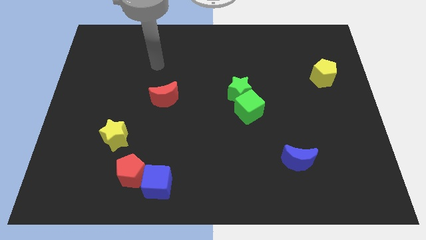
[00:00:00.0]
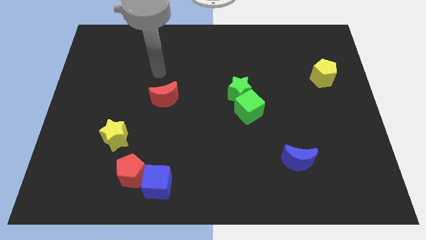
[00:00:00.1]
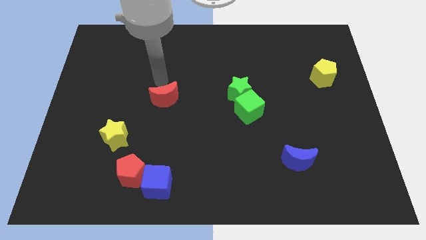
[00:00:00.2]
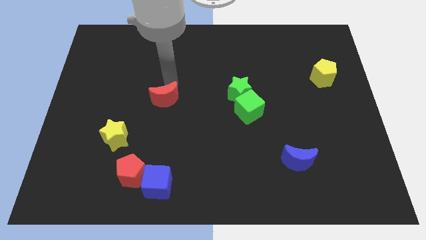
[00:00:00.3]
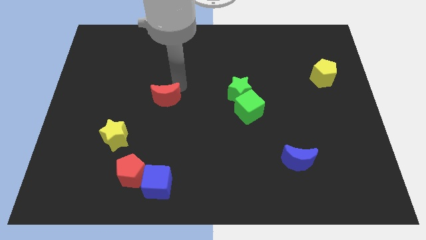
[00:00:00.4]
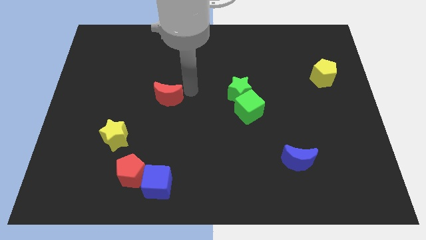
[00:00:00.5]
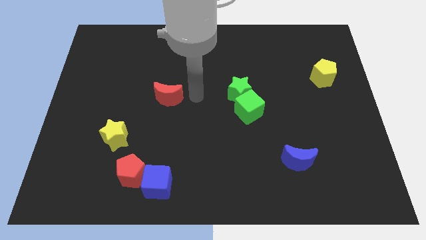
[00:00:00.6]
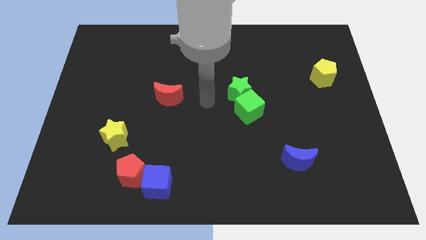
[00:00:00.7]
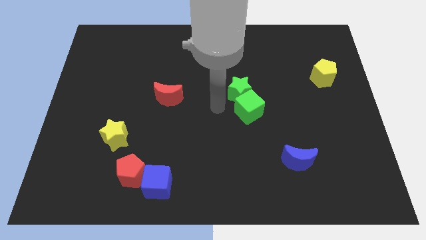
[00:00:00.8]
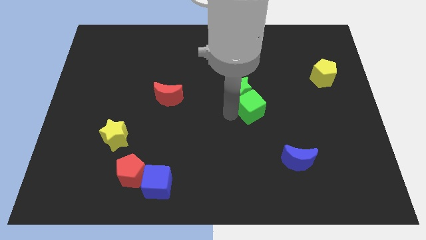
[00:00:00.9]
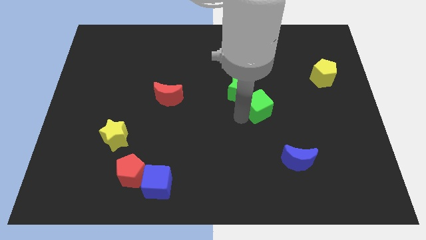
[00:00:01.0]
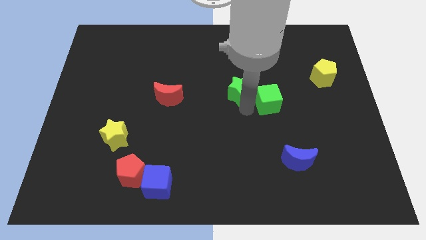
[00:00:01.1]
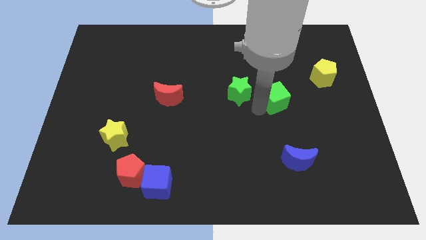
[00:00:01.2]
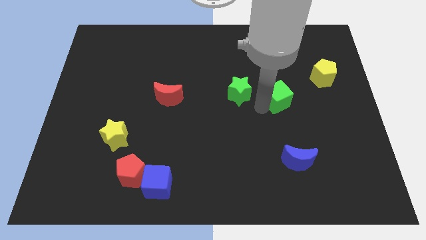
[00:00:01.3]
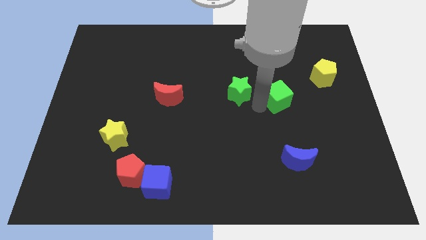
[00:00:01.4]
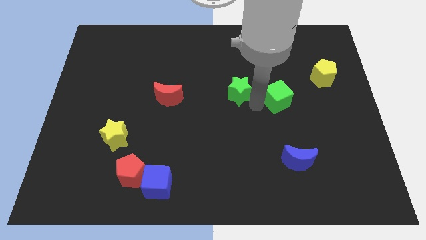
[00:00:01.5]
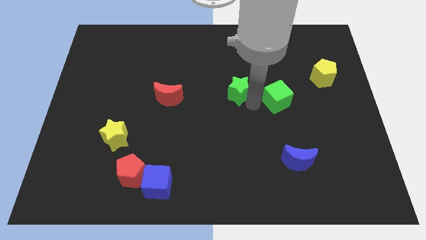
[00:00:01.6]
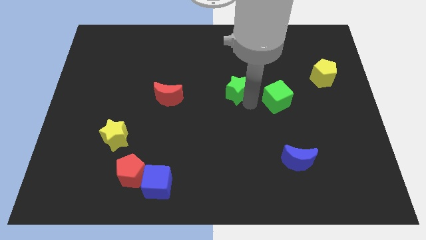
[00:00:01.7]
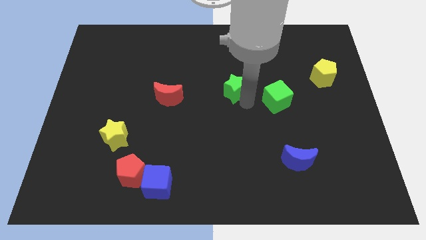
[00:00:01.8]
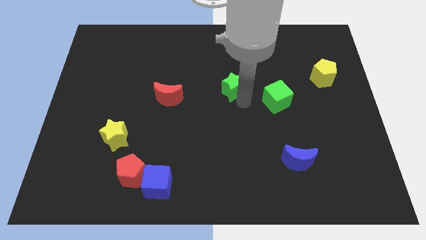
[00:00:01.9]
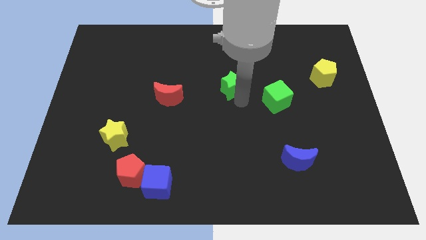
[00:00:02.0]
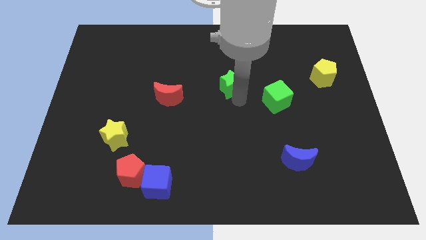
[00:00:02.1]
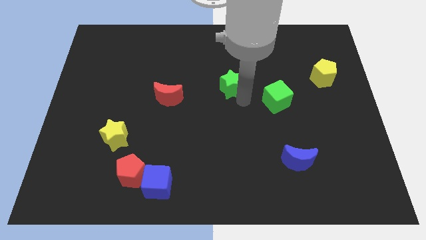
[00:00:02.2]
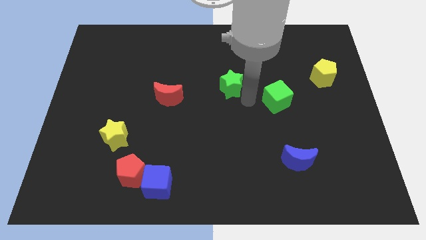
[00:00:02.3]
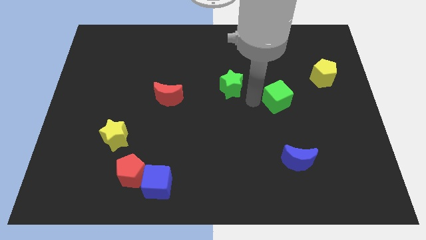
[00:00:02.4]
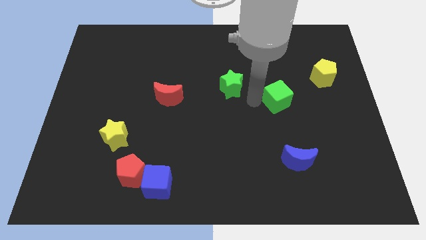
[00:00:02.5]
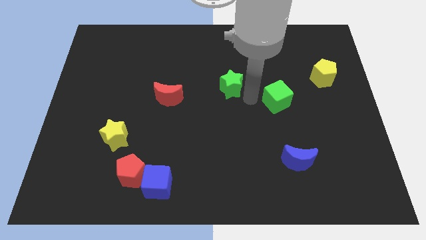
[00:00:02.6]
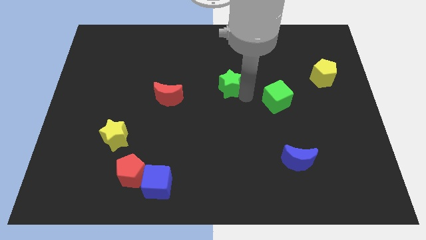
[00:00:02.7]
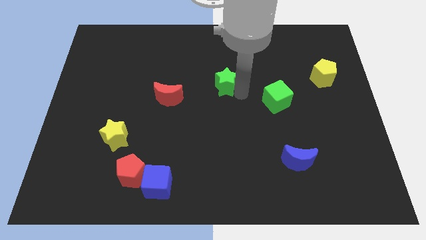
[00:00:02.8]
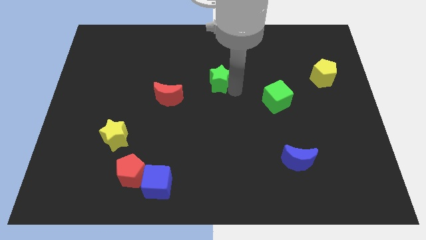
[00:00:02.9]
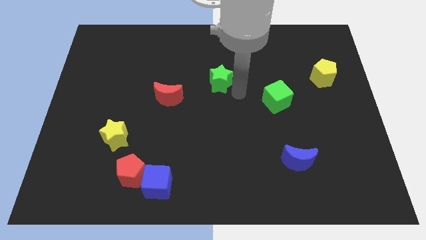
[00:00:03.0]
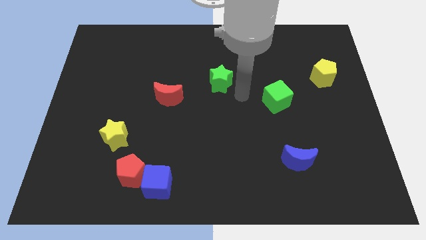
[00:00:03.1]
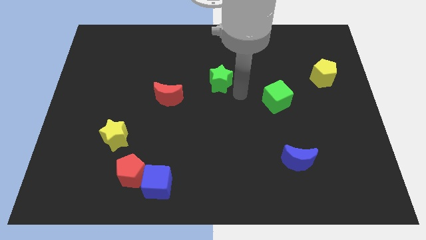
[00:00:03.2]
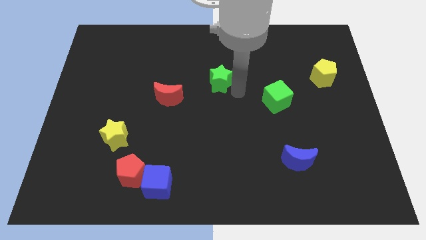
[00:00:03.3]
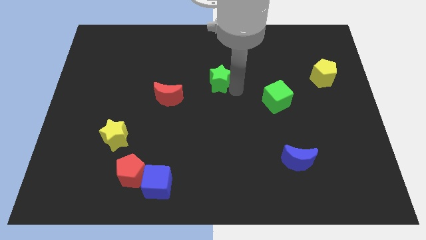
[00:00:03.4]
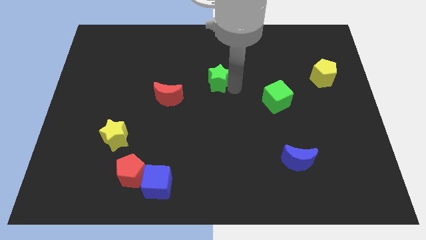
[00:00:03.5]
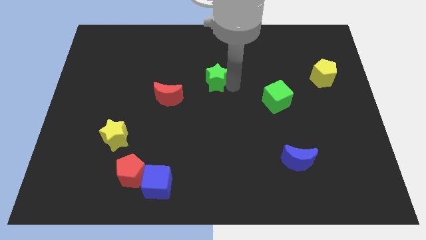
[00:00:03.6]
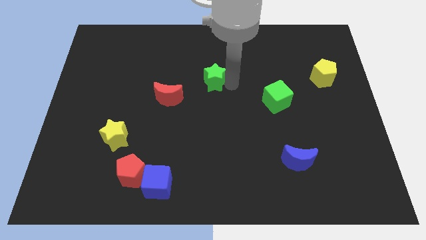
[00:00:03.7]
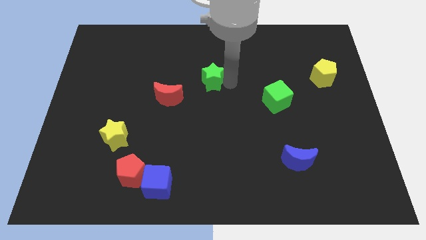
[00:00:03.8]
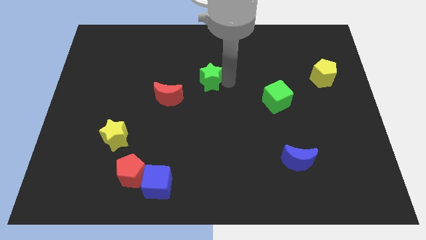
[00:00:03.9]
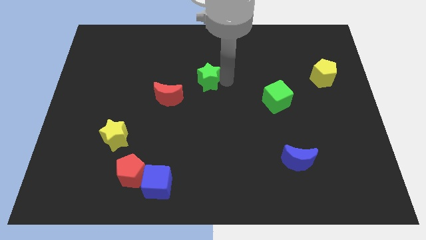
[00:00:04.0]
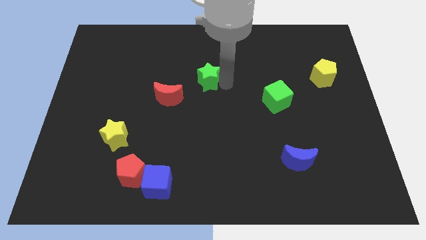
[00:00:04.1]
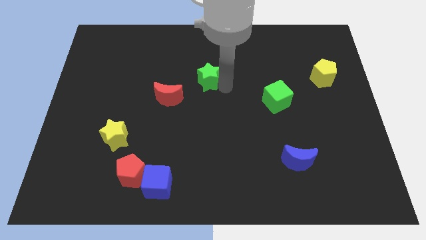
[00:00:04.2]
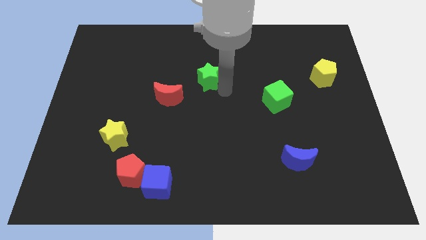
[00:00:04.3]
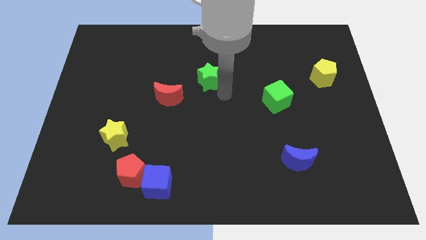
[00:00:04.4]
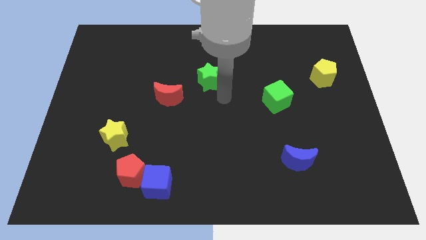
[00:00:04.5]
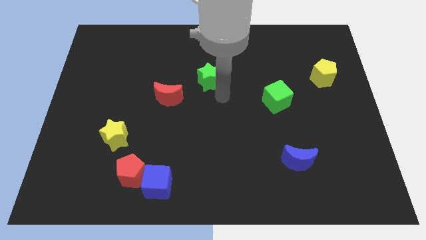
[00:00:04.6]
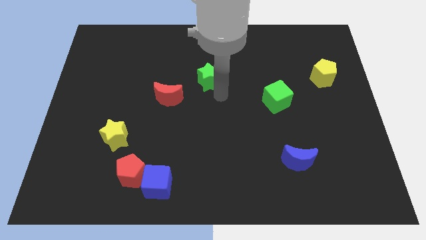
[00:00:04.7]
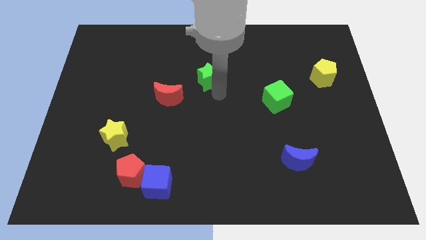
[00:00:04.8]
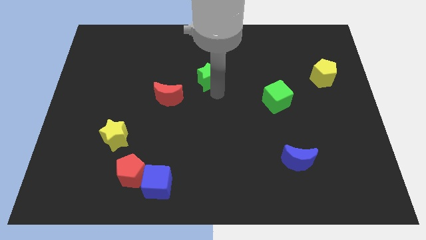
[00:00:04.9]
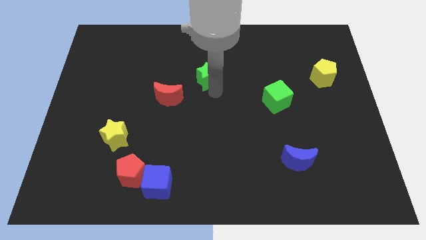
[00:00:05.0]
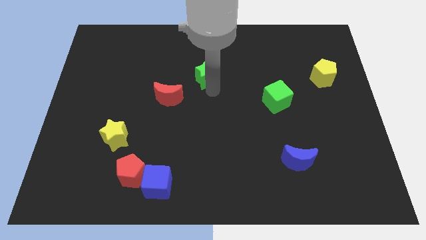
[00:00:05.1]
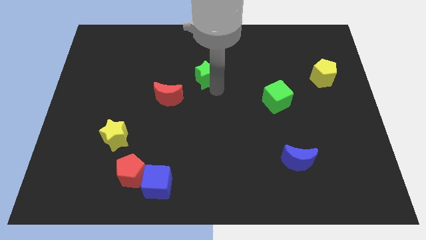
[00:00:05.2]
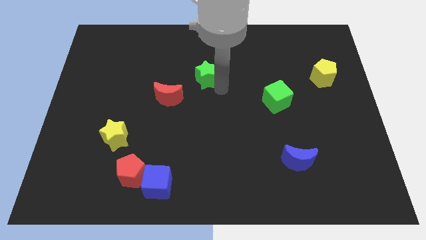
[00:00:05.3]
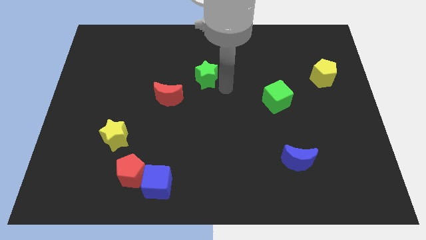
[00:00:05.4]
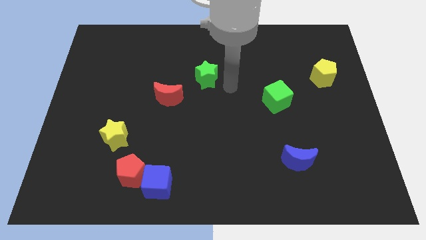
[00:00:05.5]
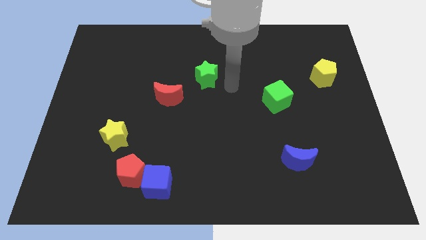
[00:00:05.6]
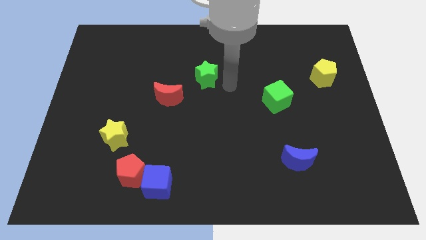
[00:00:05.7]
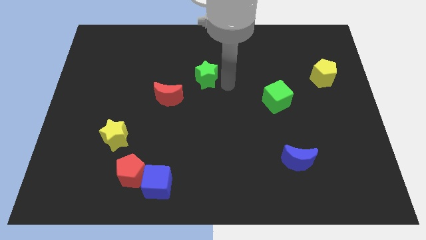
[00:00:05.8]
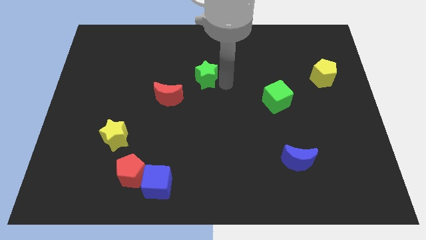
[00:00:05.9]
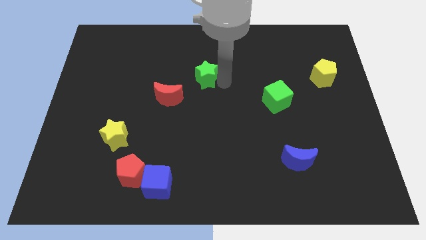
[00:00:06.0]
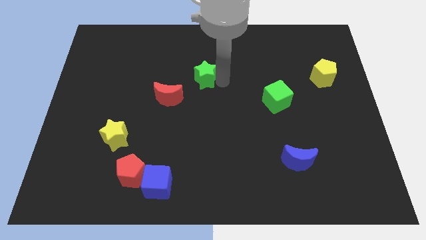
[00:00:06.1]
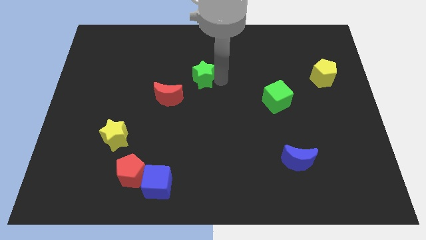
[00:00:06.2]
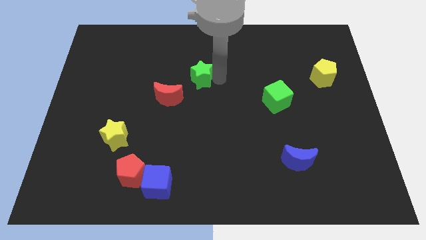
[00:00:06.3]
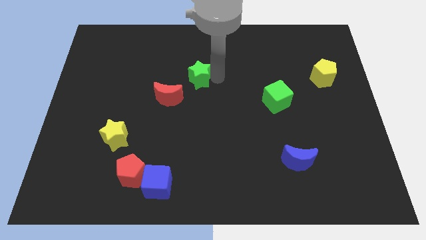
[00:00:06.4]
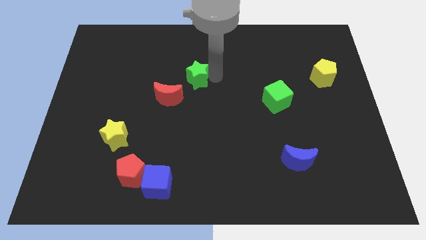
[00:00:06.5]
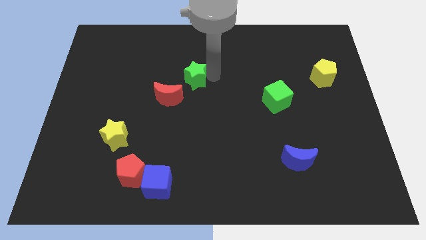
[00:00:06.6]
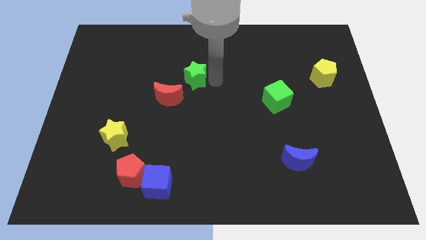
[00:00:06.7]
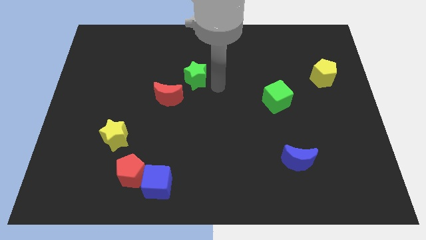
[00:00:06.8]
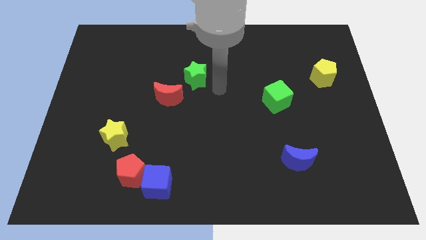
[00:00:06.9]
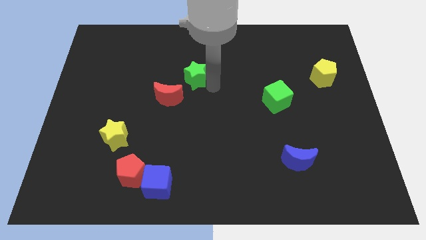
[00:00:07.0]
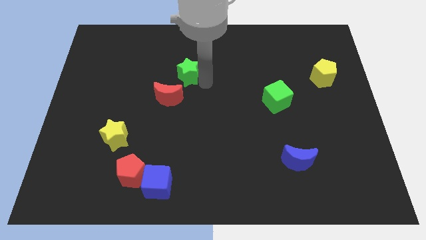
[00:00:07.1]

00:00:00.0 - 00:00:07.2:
move the green star above the red moon
